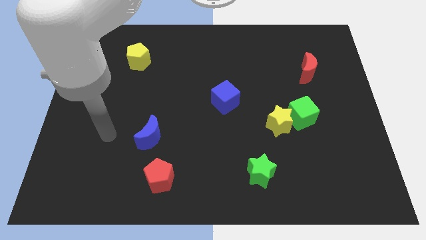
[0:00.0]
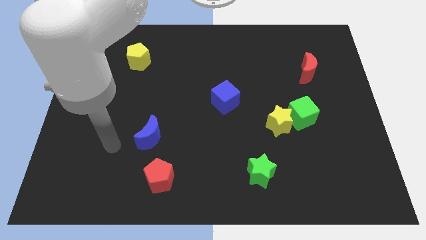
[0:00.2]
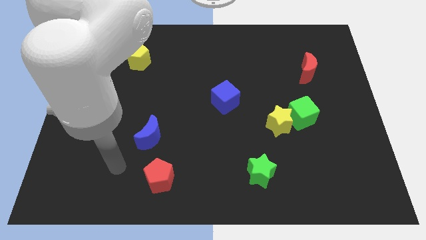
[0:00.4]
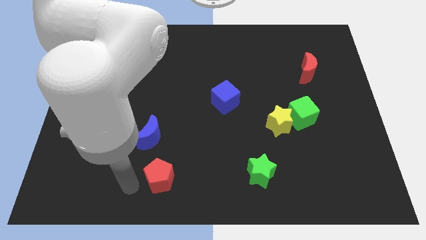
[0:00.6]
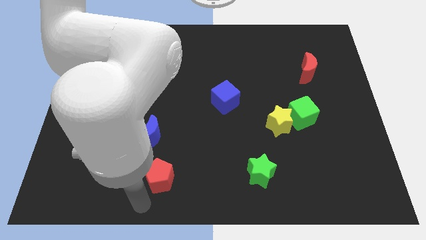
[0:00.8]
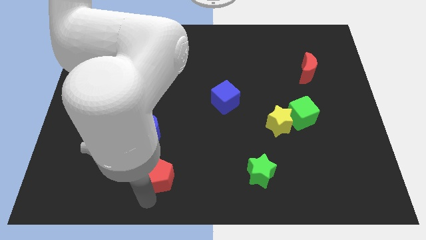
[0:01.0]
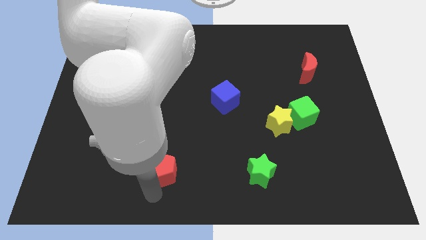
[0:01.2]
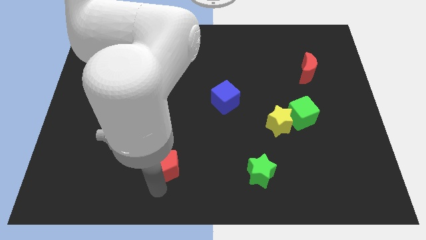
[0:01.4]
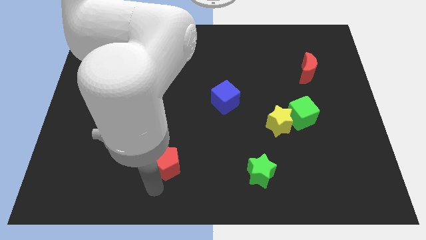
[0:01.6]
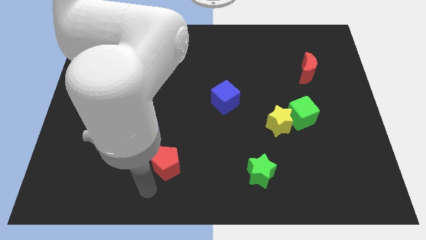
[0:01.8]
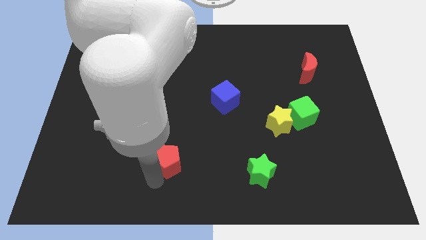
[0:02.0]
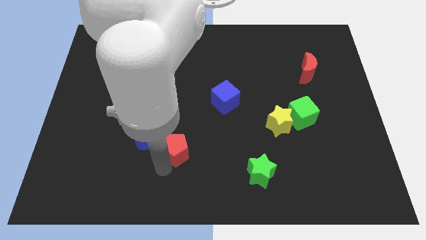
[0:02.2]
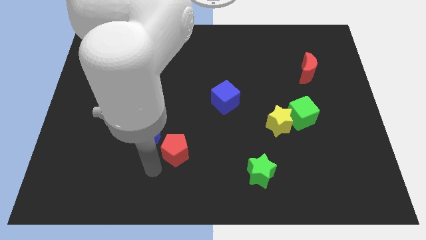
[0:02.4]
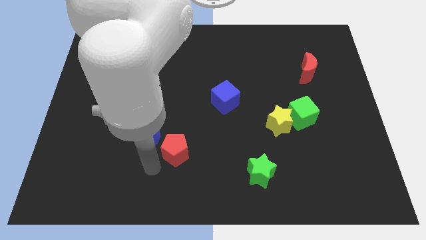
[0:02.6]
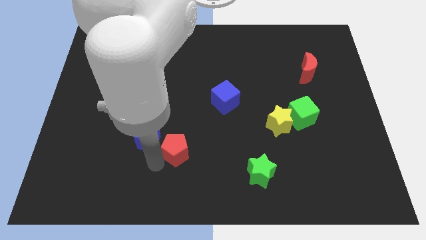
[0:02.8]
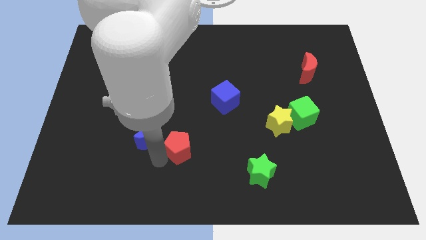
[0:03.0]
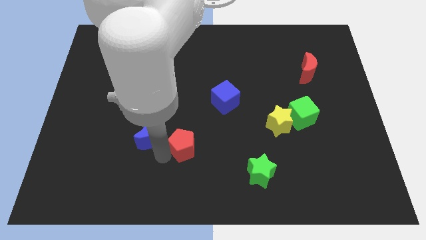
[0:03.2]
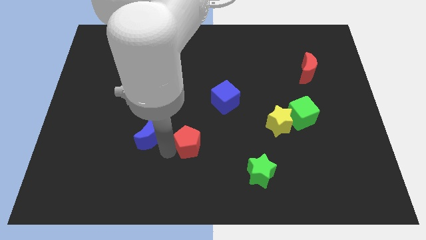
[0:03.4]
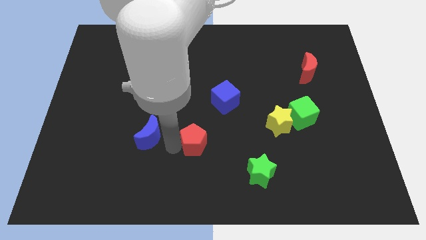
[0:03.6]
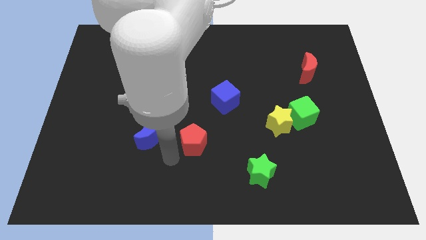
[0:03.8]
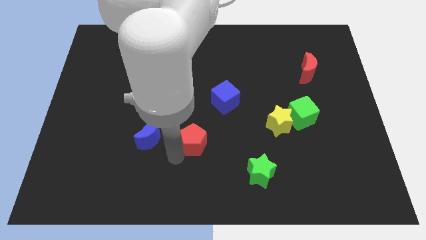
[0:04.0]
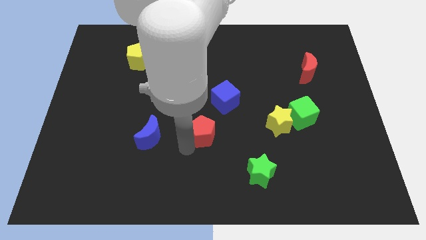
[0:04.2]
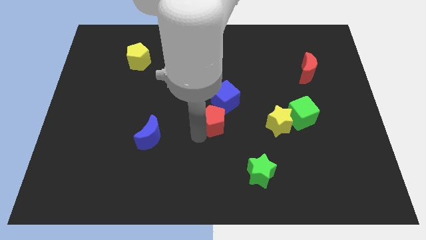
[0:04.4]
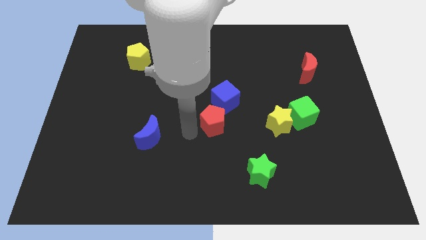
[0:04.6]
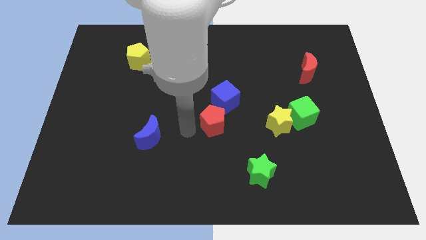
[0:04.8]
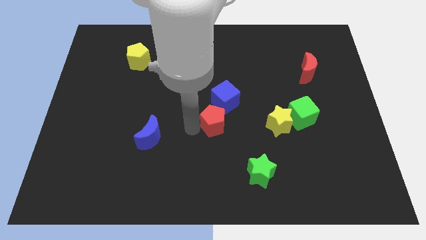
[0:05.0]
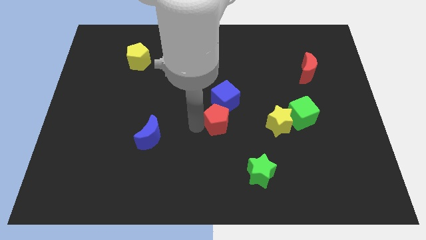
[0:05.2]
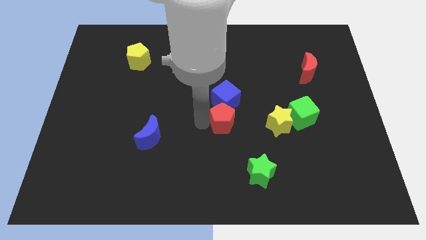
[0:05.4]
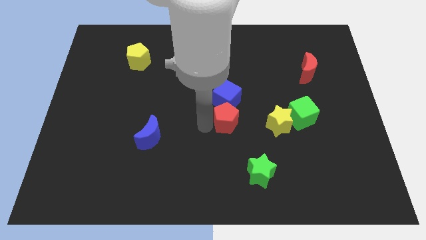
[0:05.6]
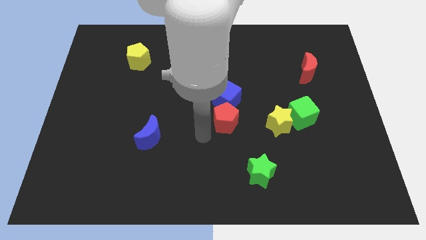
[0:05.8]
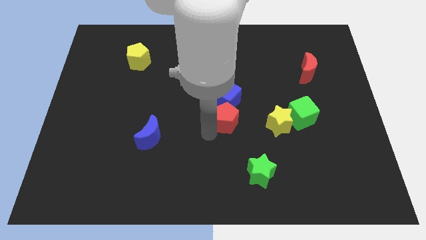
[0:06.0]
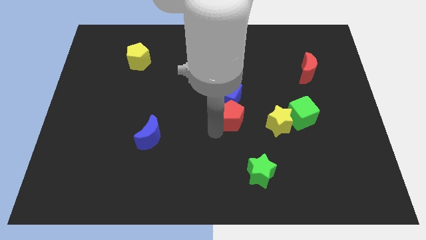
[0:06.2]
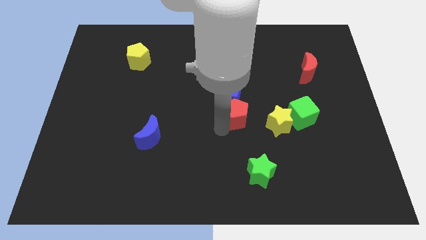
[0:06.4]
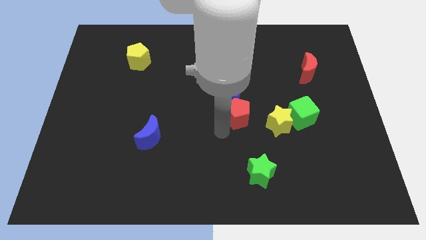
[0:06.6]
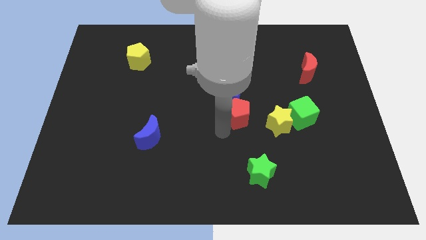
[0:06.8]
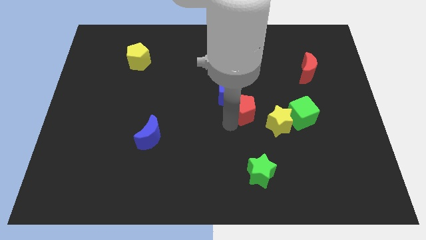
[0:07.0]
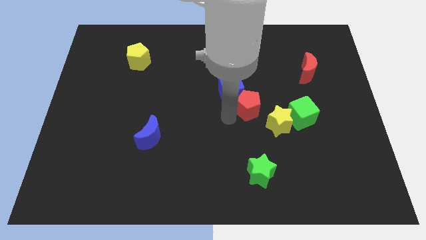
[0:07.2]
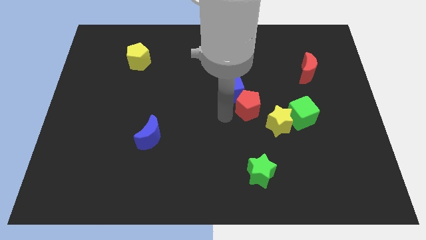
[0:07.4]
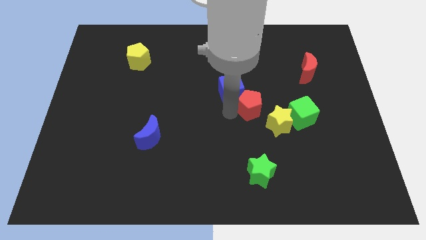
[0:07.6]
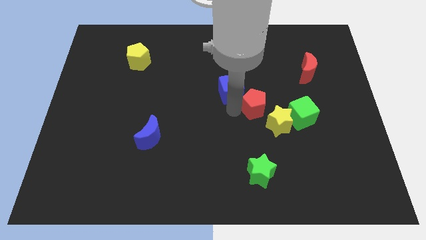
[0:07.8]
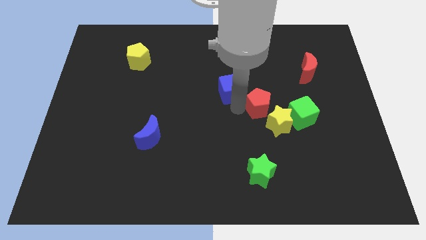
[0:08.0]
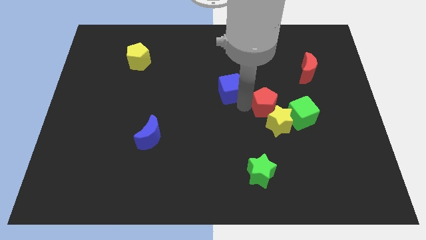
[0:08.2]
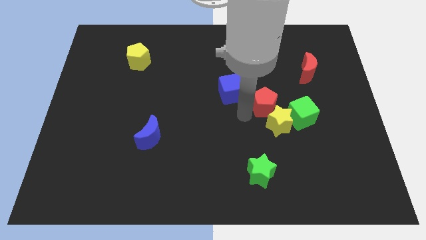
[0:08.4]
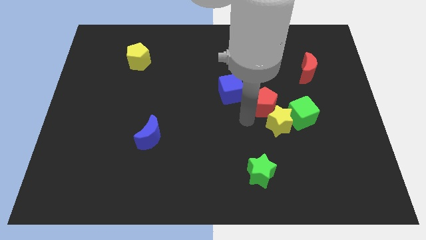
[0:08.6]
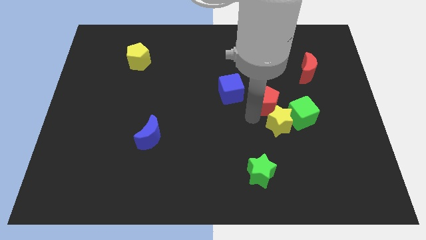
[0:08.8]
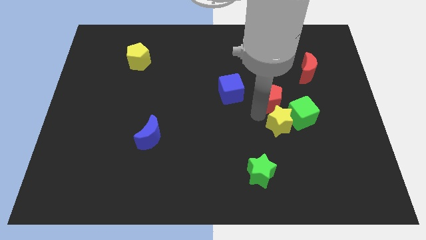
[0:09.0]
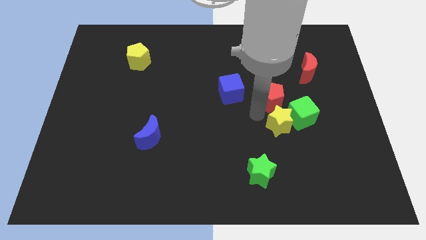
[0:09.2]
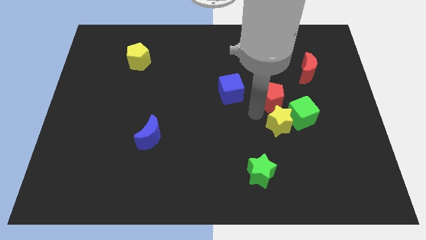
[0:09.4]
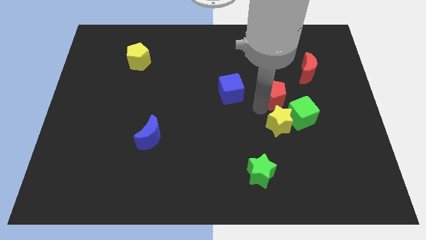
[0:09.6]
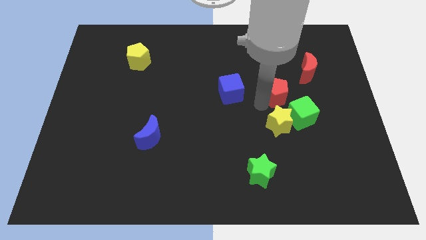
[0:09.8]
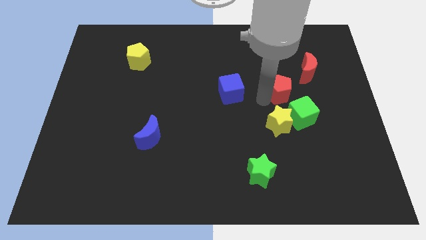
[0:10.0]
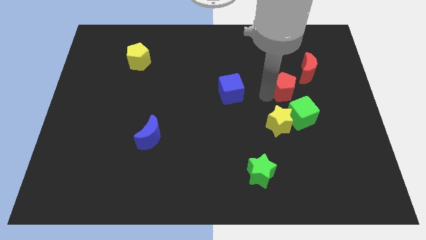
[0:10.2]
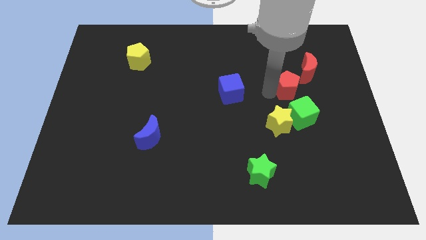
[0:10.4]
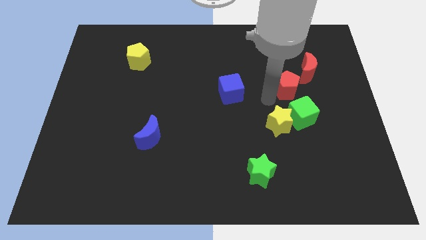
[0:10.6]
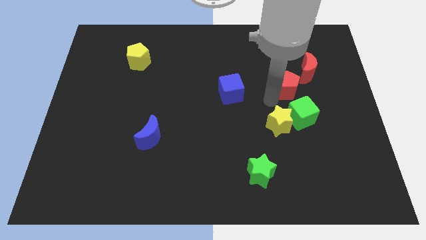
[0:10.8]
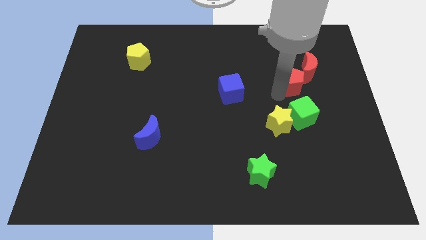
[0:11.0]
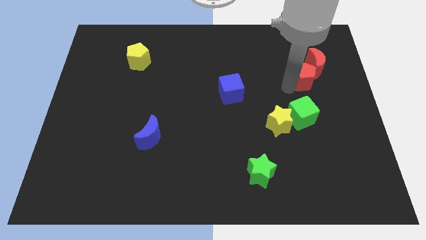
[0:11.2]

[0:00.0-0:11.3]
move the red pentagon towards the red moon
